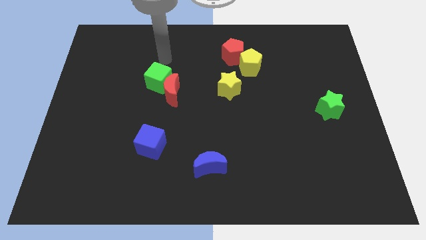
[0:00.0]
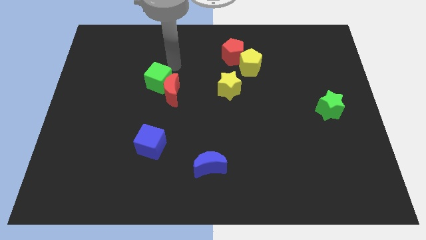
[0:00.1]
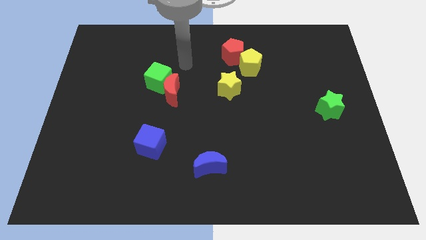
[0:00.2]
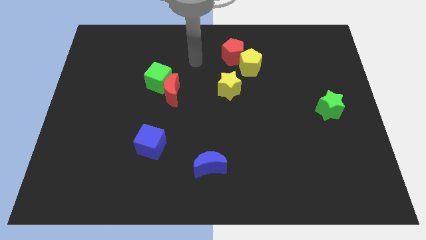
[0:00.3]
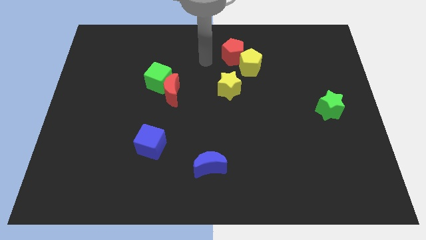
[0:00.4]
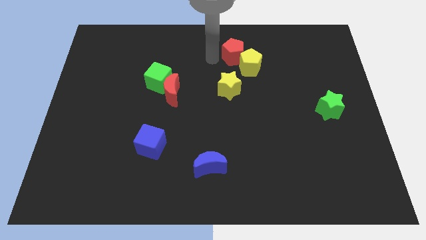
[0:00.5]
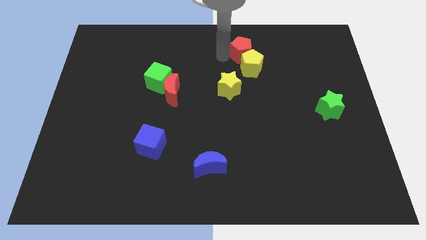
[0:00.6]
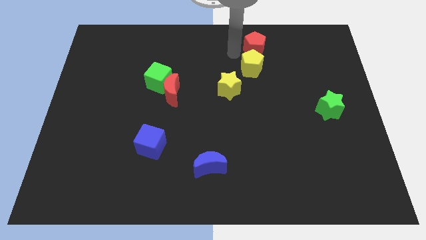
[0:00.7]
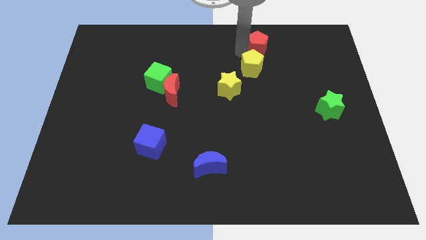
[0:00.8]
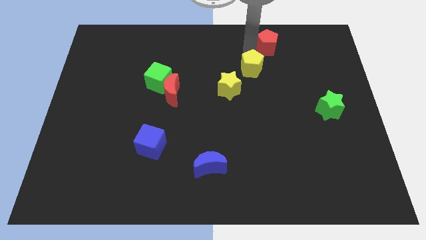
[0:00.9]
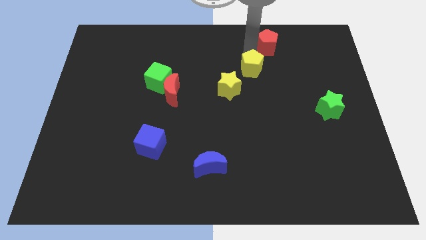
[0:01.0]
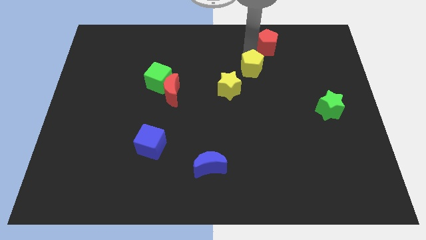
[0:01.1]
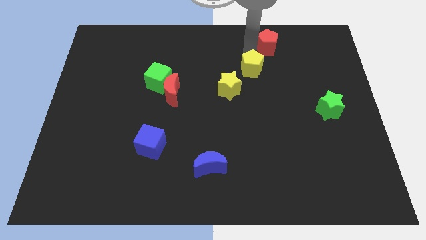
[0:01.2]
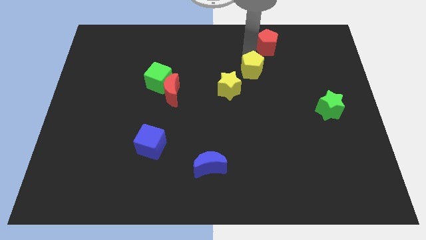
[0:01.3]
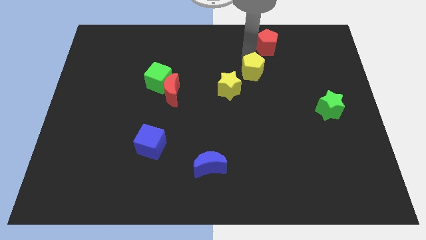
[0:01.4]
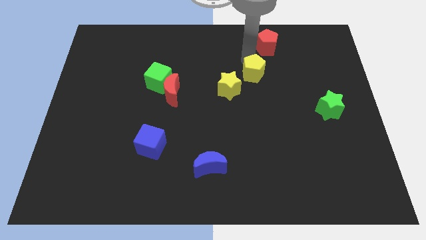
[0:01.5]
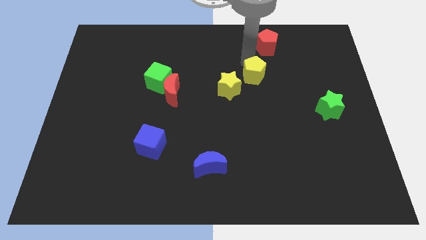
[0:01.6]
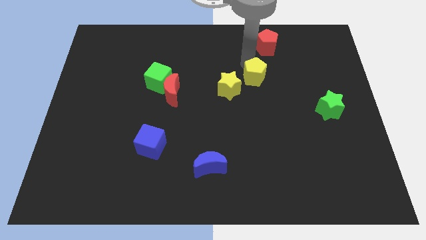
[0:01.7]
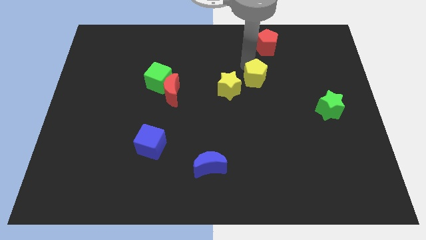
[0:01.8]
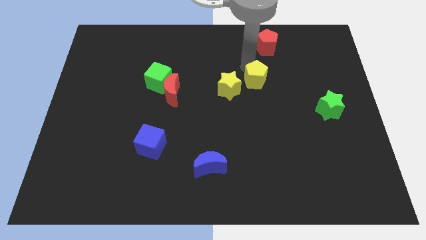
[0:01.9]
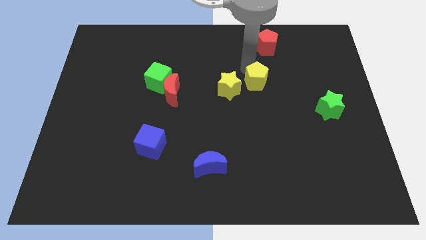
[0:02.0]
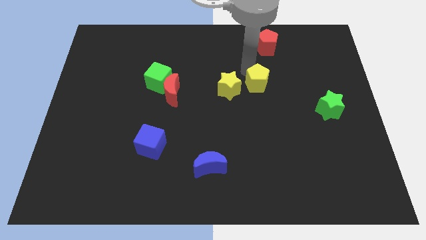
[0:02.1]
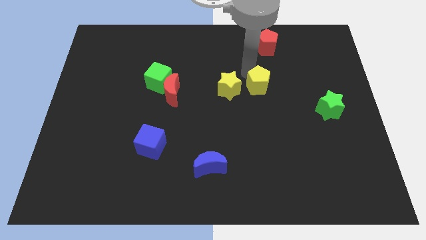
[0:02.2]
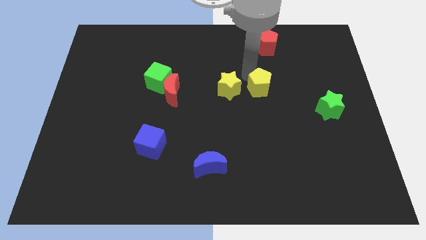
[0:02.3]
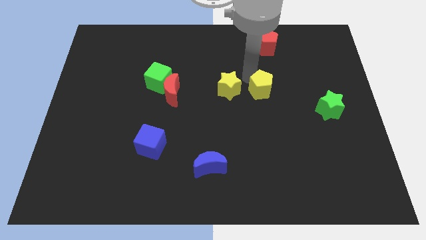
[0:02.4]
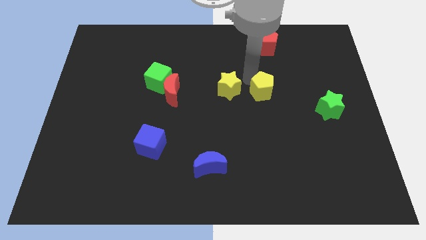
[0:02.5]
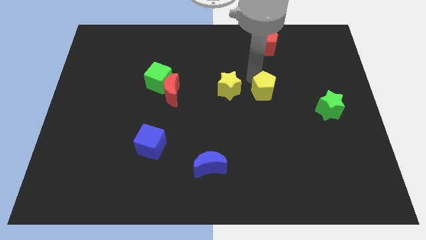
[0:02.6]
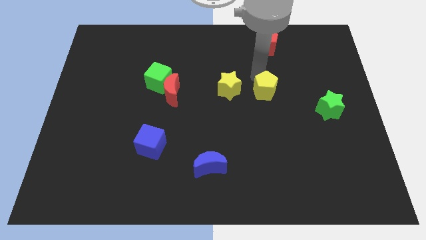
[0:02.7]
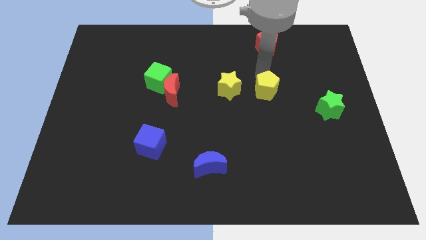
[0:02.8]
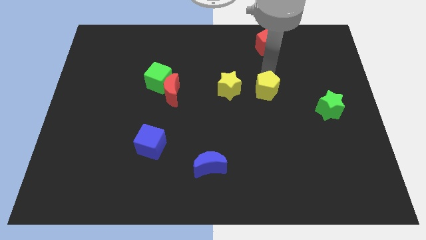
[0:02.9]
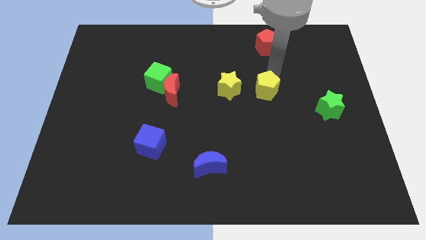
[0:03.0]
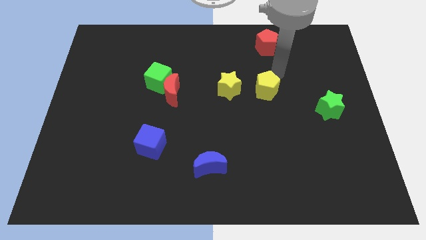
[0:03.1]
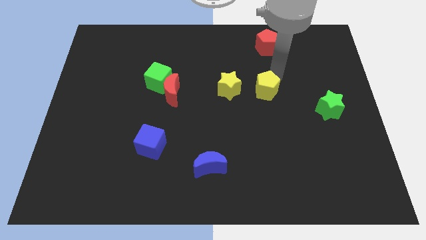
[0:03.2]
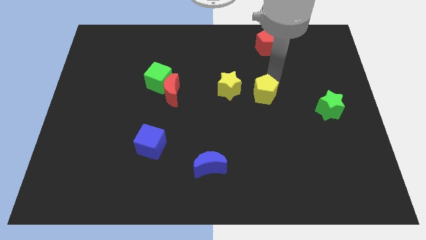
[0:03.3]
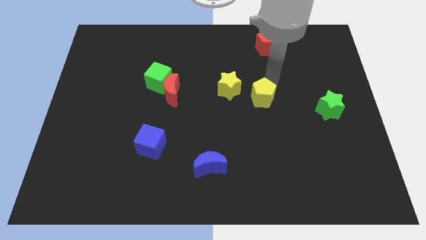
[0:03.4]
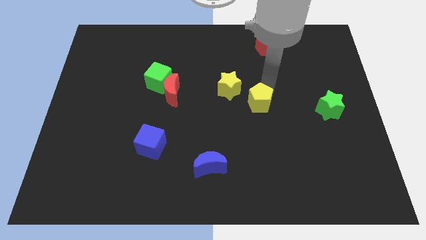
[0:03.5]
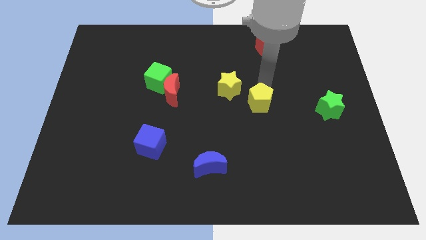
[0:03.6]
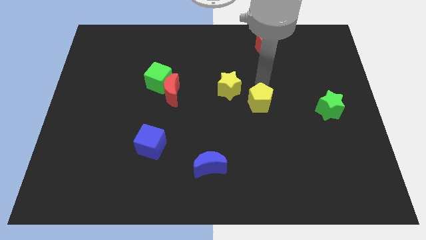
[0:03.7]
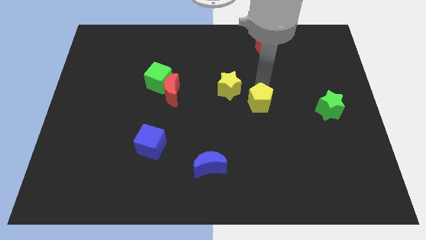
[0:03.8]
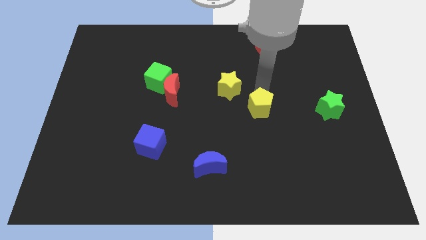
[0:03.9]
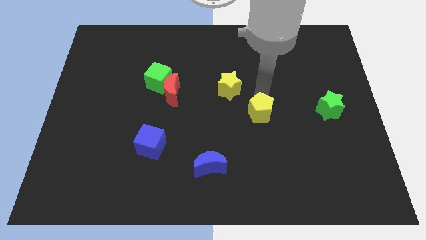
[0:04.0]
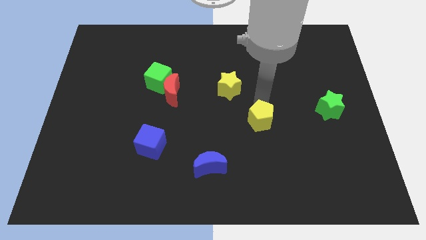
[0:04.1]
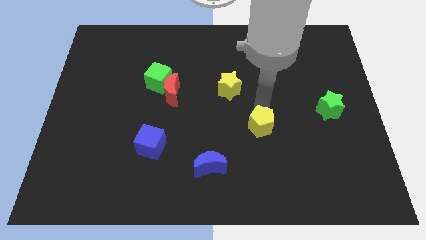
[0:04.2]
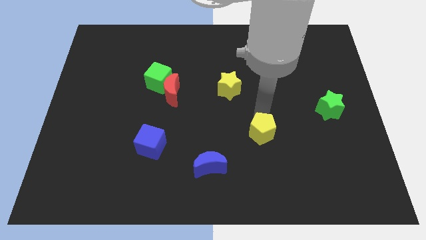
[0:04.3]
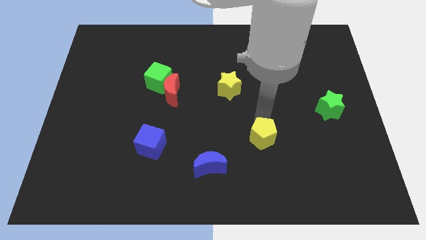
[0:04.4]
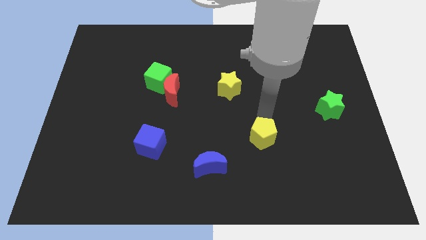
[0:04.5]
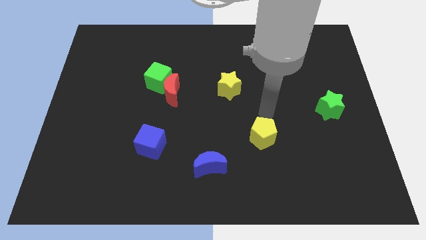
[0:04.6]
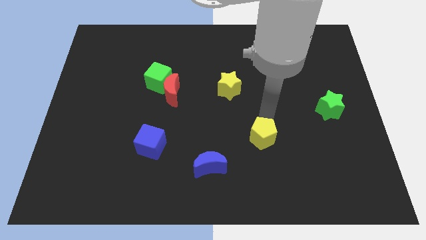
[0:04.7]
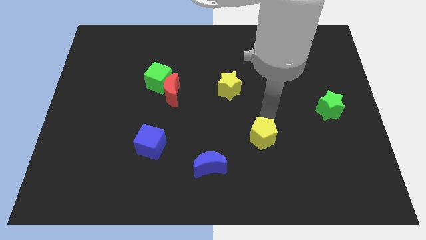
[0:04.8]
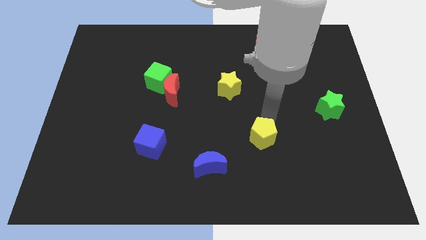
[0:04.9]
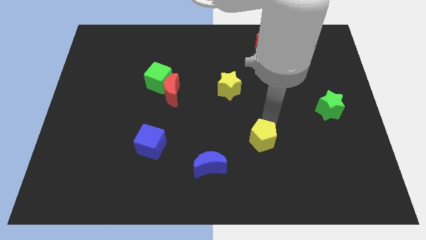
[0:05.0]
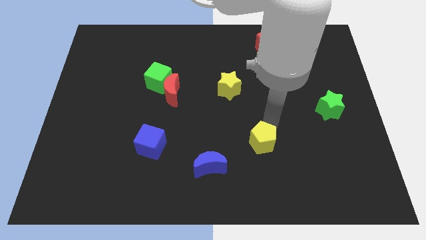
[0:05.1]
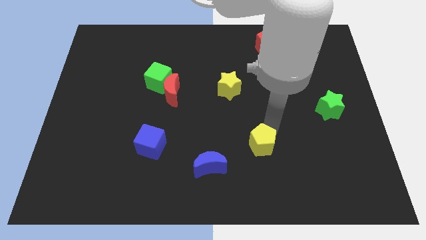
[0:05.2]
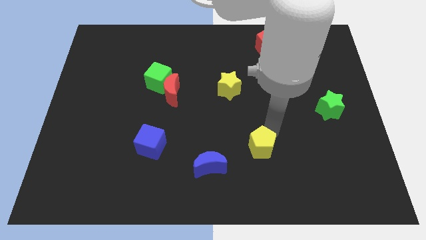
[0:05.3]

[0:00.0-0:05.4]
move the yellow pentagon to the right of the blue moon

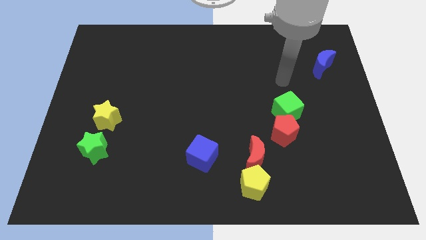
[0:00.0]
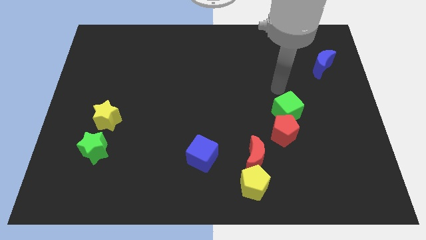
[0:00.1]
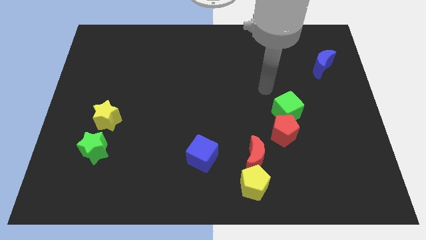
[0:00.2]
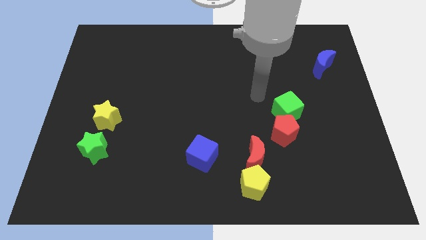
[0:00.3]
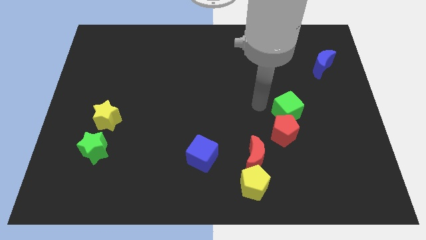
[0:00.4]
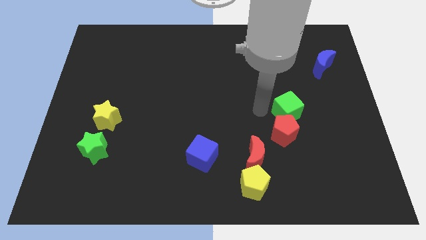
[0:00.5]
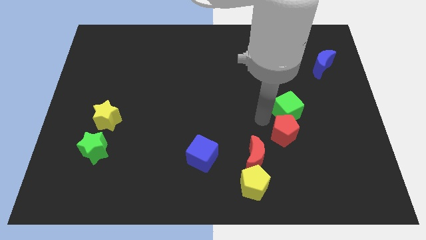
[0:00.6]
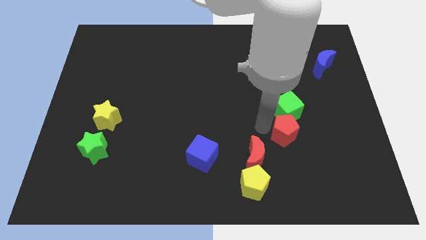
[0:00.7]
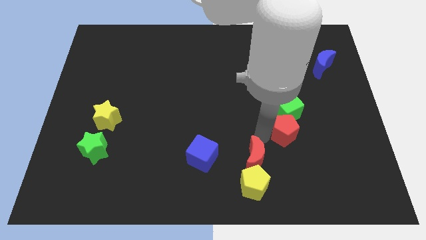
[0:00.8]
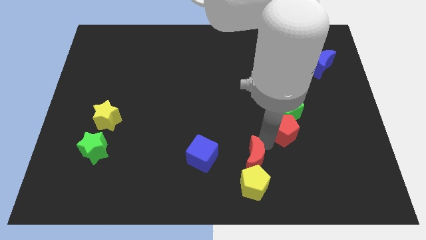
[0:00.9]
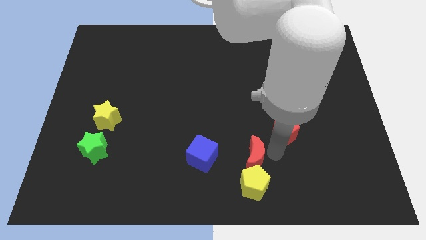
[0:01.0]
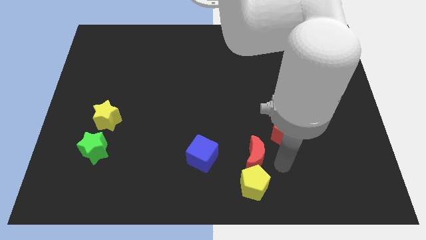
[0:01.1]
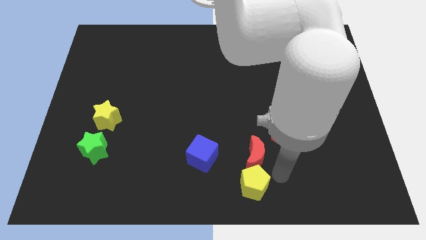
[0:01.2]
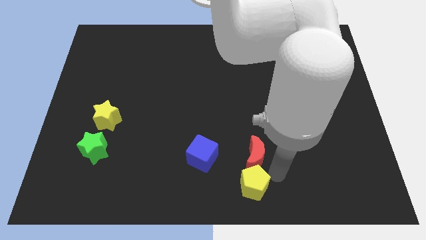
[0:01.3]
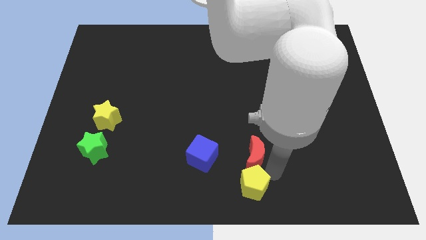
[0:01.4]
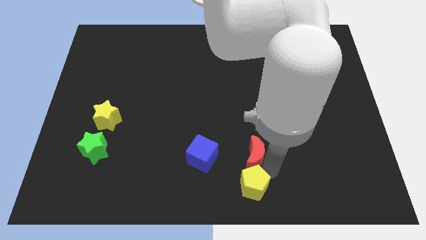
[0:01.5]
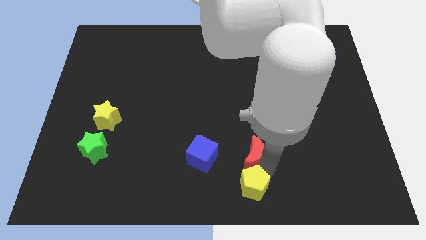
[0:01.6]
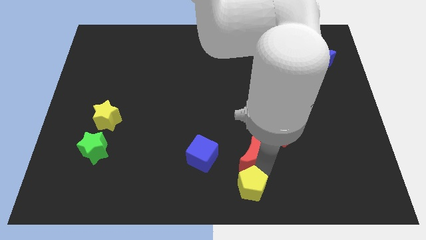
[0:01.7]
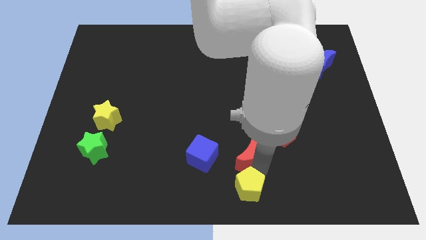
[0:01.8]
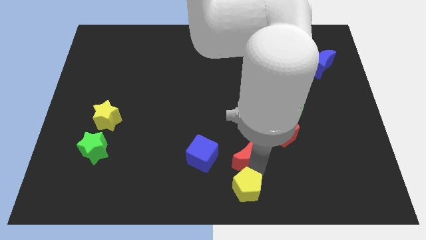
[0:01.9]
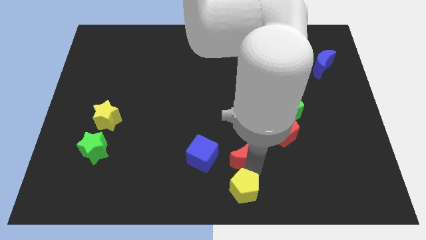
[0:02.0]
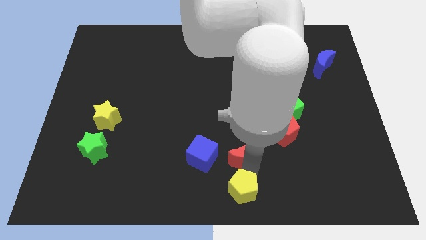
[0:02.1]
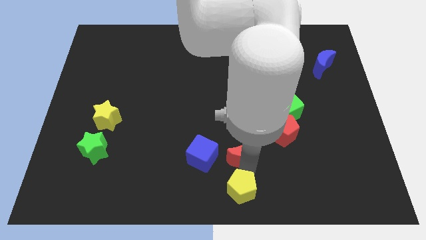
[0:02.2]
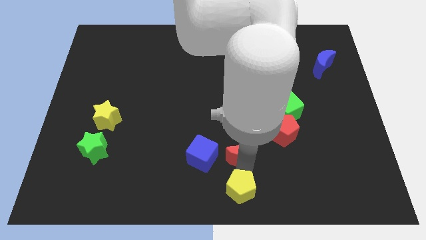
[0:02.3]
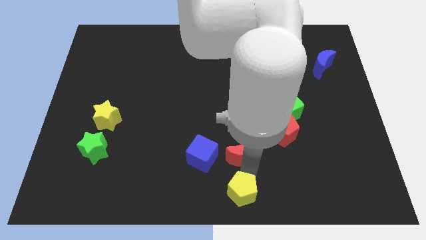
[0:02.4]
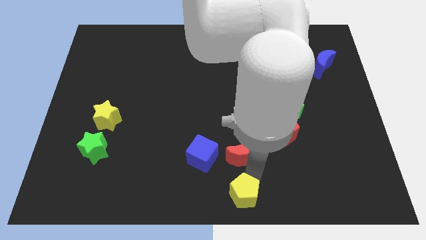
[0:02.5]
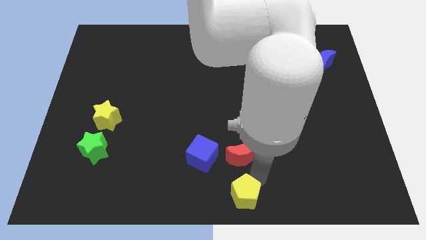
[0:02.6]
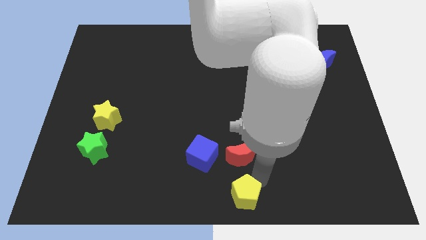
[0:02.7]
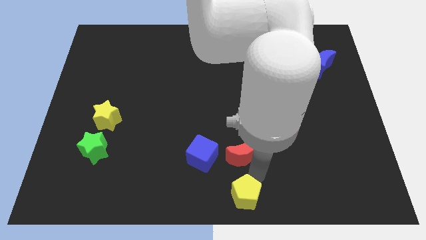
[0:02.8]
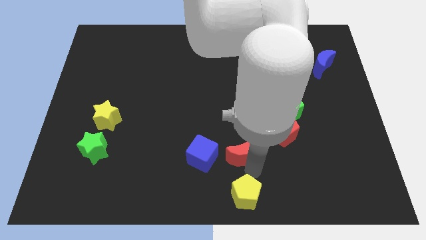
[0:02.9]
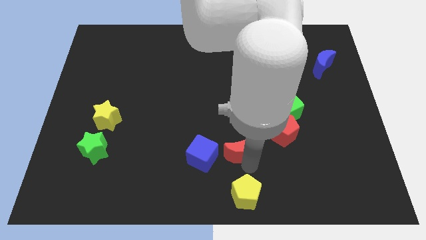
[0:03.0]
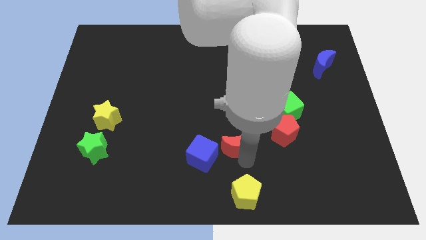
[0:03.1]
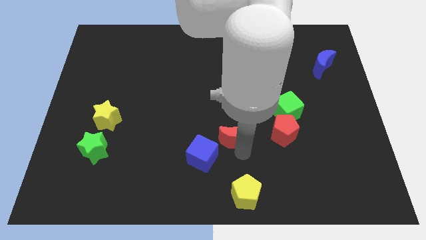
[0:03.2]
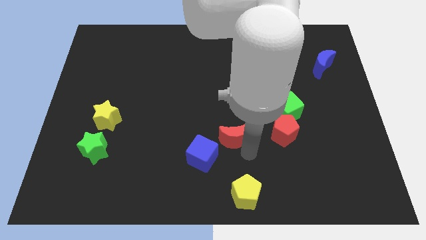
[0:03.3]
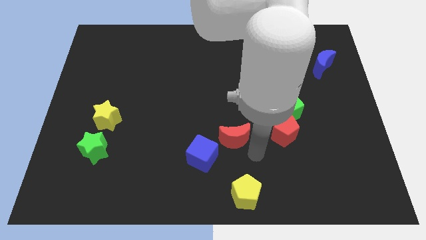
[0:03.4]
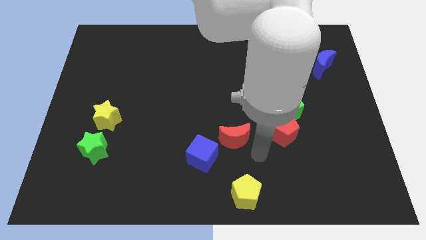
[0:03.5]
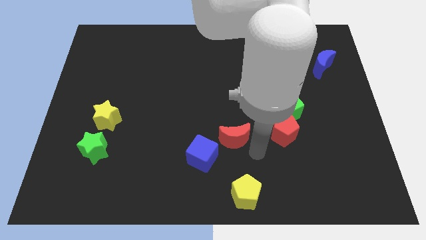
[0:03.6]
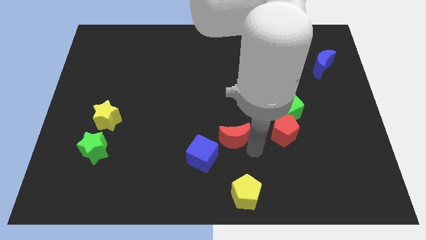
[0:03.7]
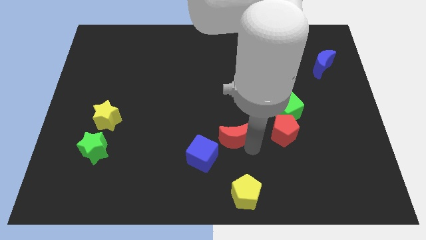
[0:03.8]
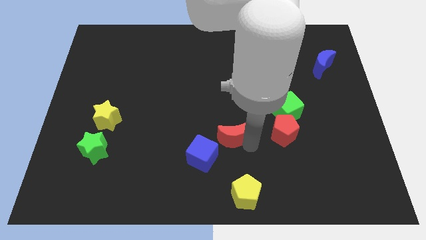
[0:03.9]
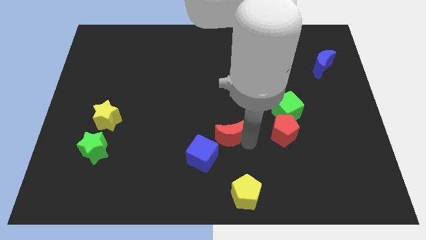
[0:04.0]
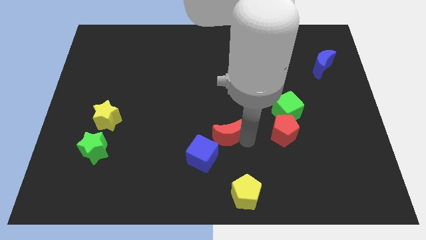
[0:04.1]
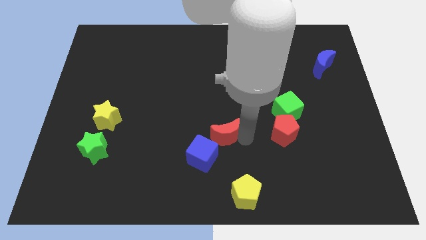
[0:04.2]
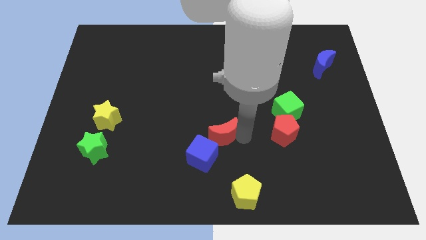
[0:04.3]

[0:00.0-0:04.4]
put the red moon to the top side of the blue cube
